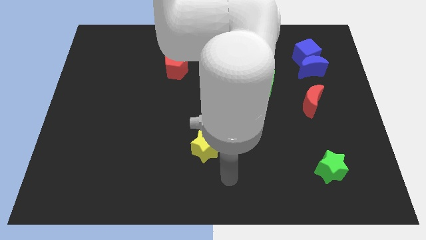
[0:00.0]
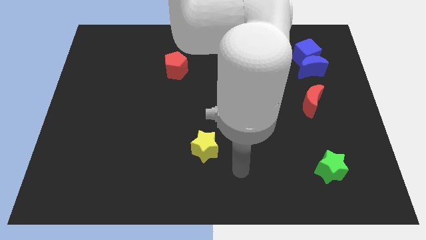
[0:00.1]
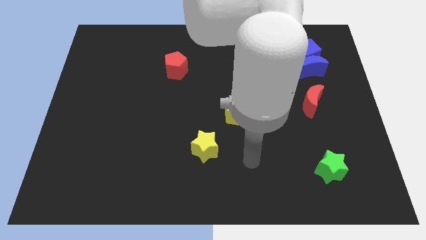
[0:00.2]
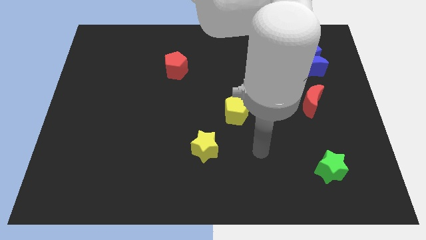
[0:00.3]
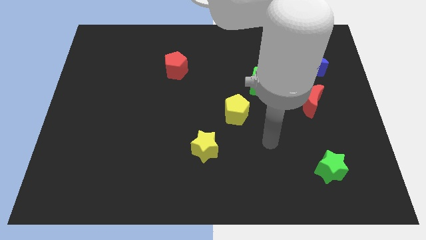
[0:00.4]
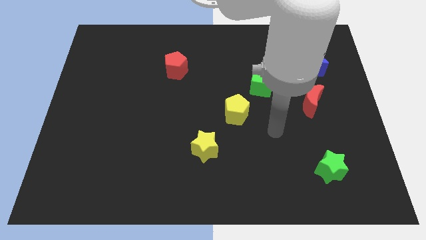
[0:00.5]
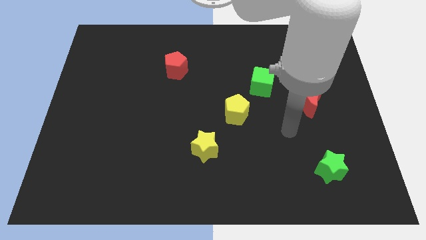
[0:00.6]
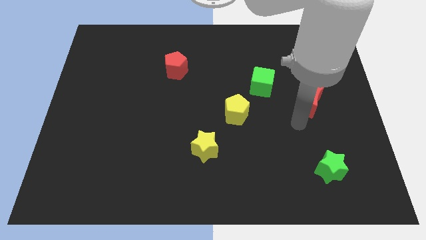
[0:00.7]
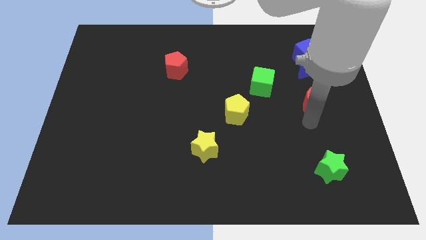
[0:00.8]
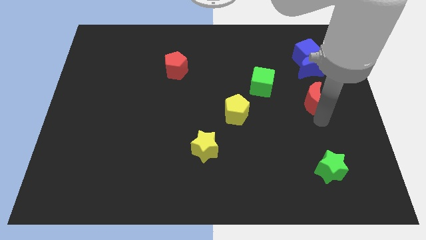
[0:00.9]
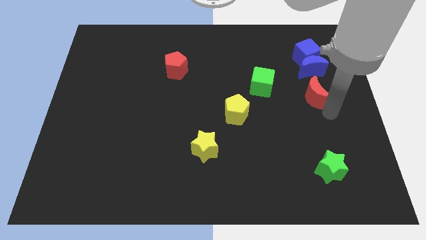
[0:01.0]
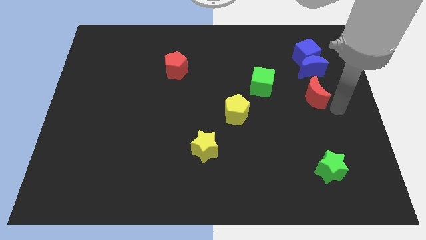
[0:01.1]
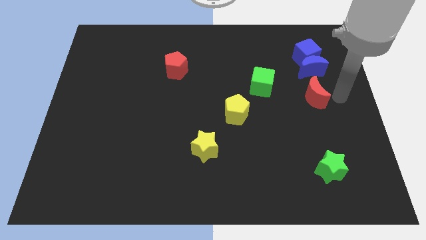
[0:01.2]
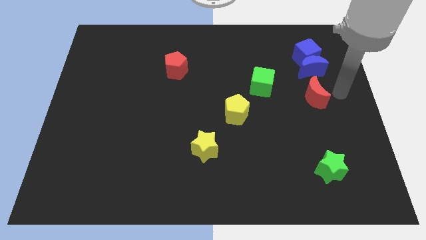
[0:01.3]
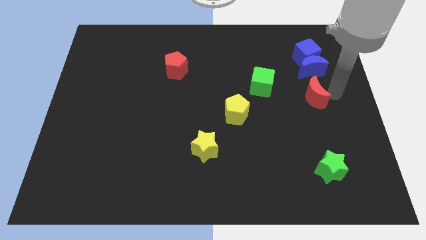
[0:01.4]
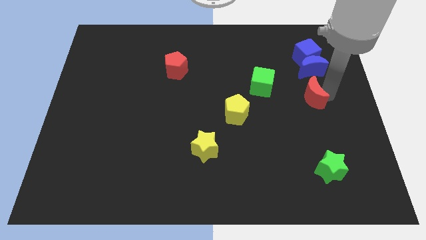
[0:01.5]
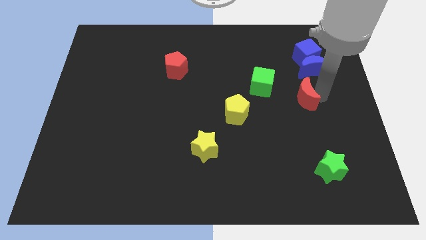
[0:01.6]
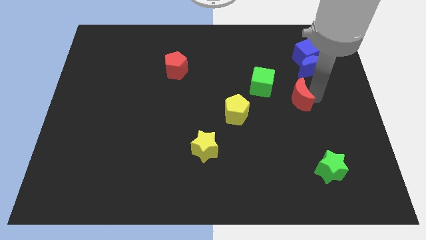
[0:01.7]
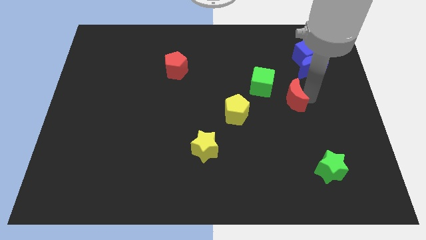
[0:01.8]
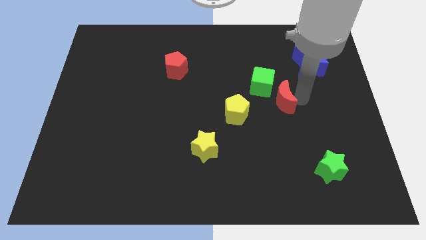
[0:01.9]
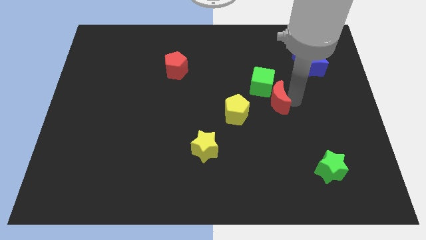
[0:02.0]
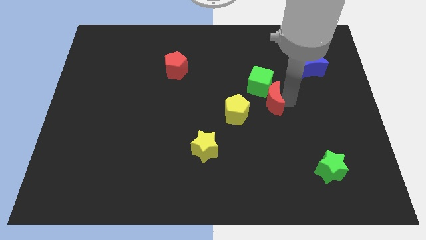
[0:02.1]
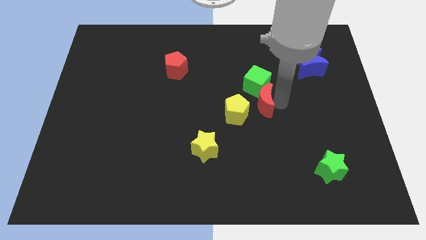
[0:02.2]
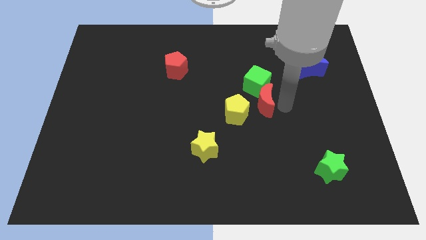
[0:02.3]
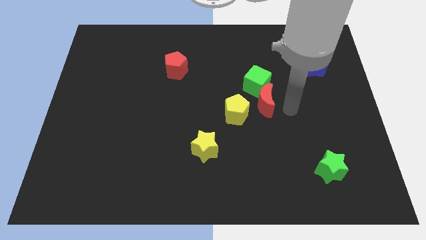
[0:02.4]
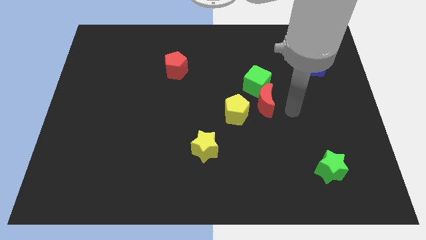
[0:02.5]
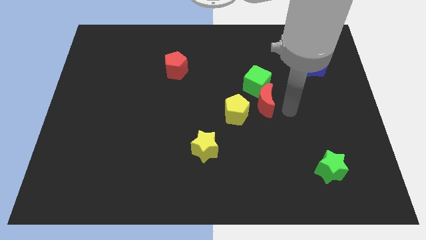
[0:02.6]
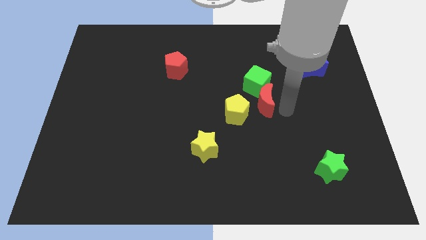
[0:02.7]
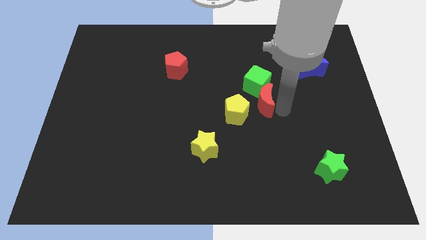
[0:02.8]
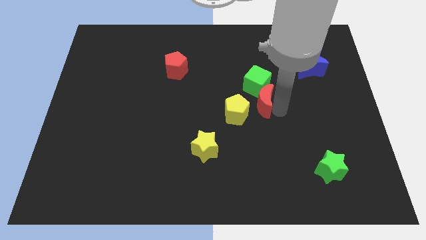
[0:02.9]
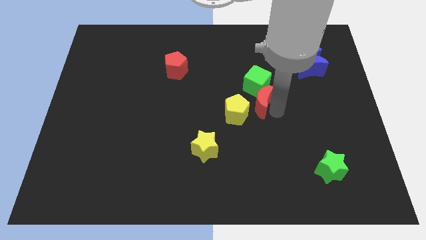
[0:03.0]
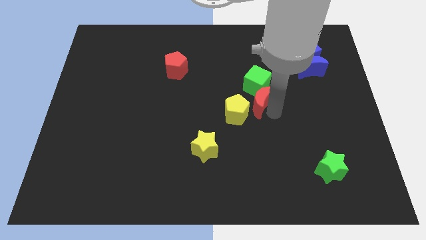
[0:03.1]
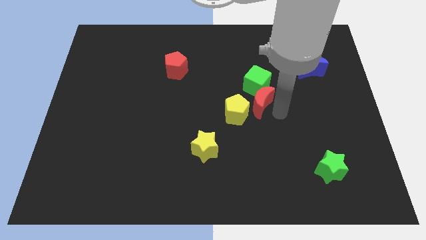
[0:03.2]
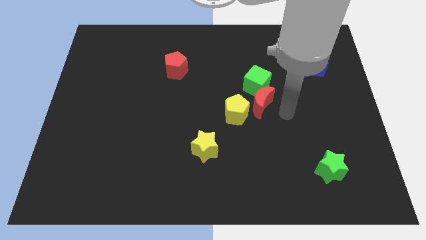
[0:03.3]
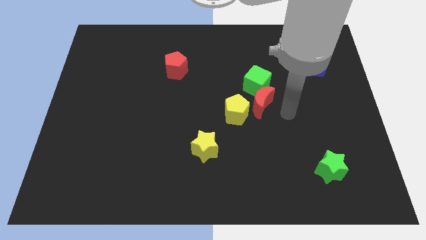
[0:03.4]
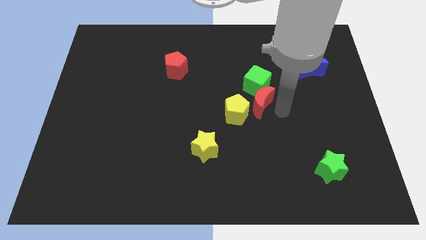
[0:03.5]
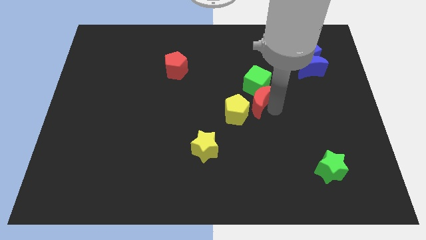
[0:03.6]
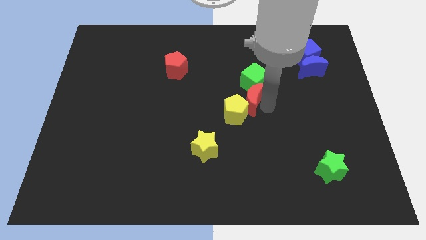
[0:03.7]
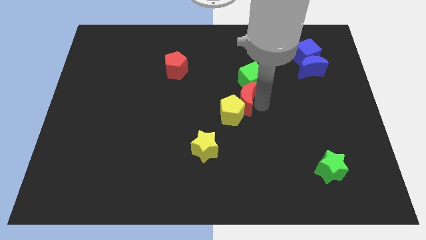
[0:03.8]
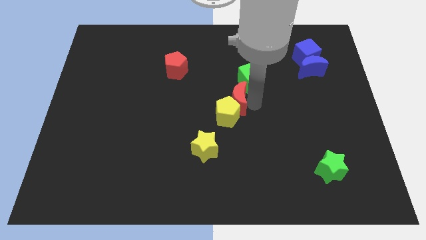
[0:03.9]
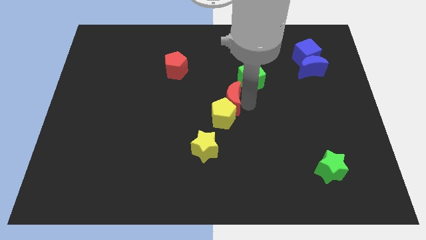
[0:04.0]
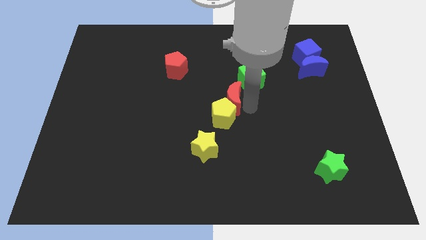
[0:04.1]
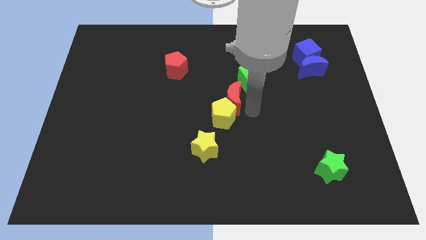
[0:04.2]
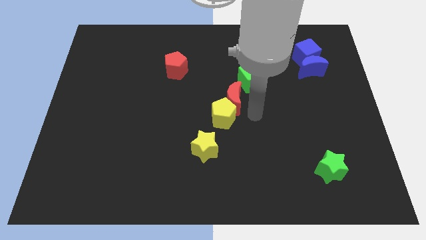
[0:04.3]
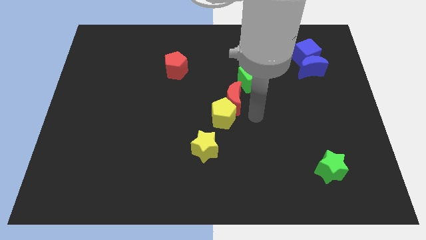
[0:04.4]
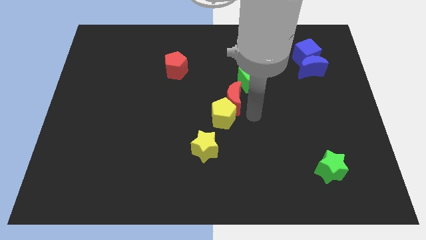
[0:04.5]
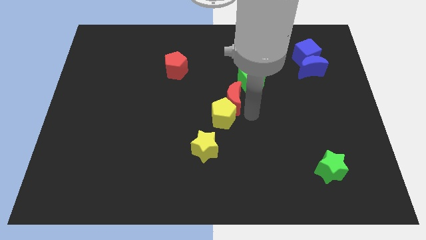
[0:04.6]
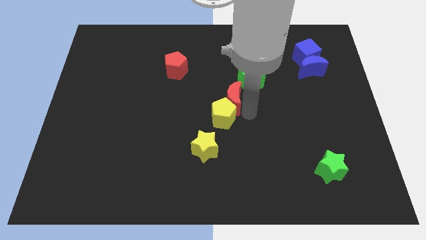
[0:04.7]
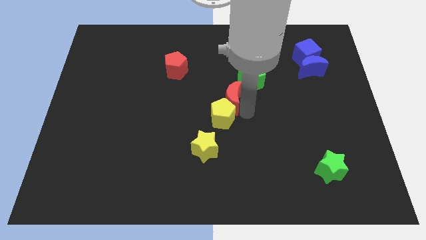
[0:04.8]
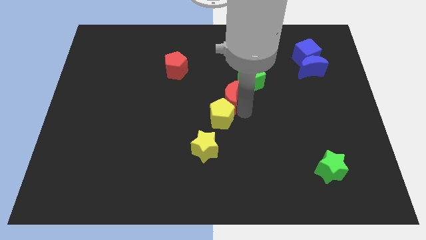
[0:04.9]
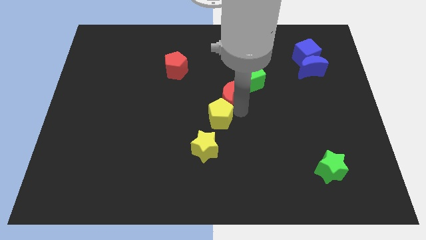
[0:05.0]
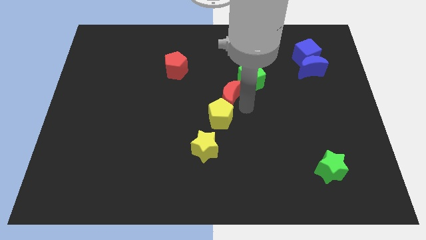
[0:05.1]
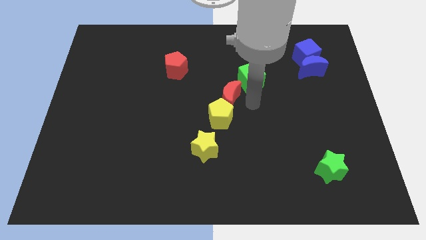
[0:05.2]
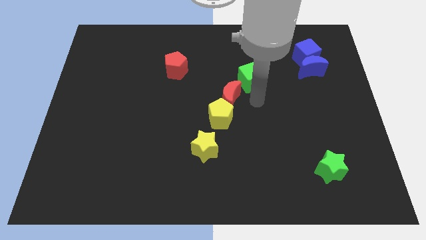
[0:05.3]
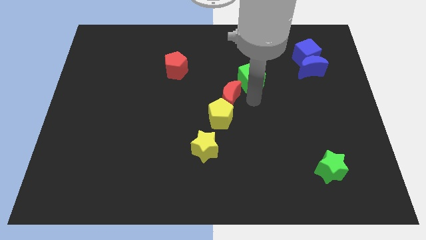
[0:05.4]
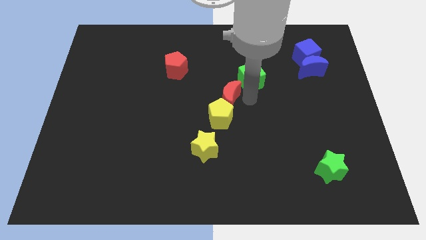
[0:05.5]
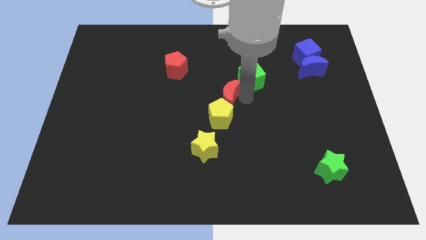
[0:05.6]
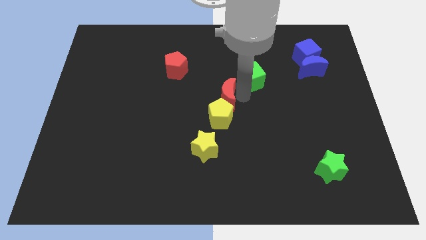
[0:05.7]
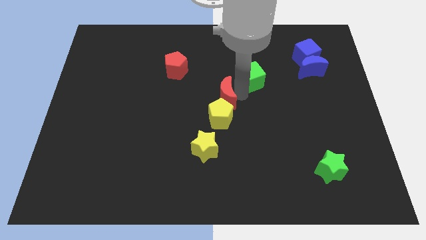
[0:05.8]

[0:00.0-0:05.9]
slide the red moon to the left

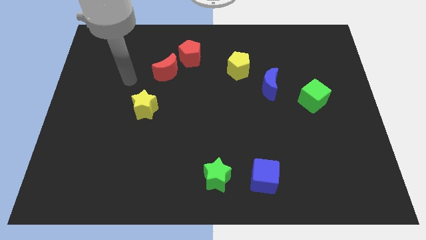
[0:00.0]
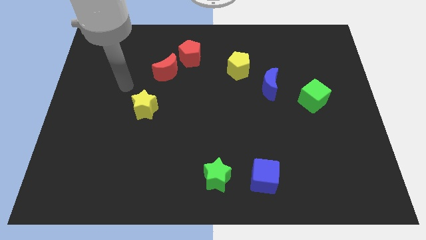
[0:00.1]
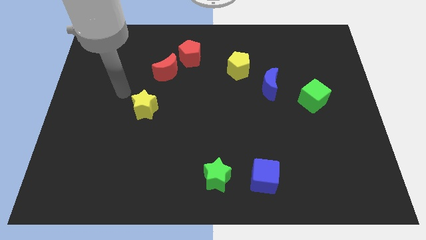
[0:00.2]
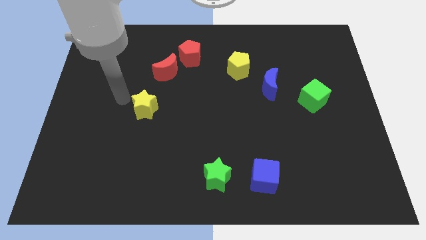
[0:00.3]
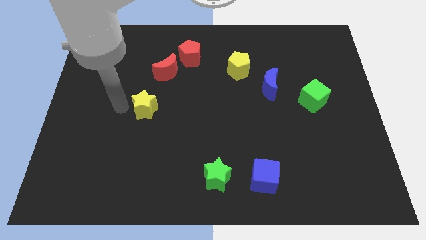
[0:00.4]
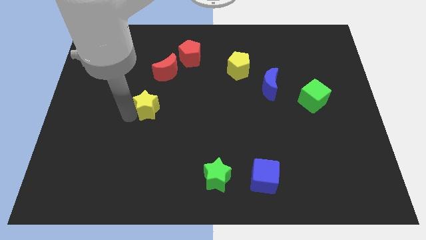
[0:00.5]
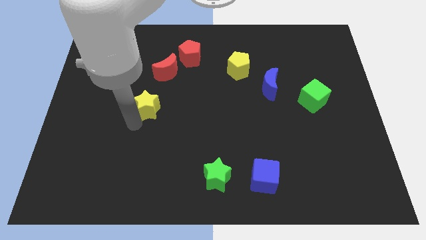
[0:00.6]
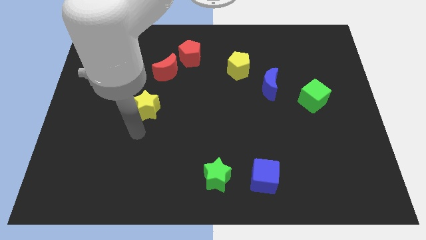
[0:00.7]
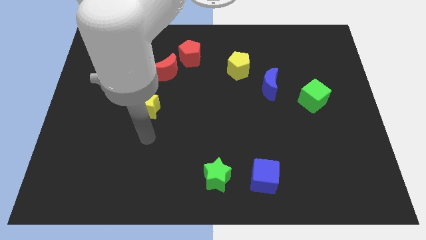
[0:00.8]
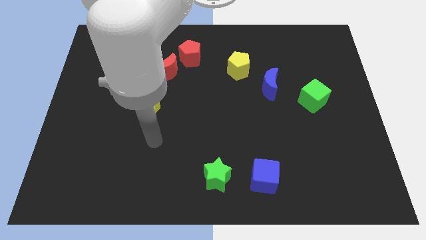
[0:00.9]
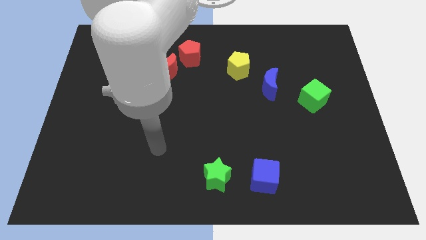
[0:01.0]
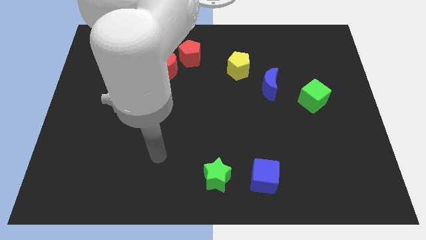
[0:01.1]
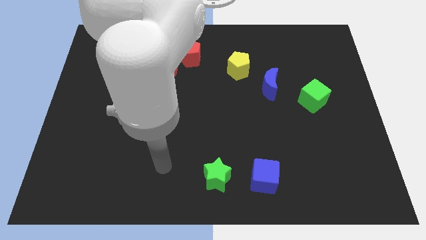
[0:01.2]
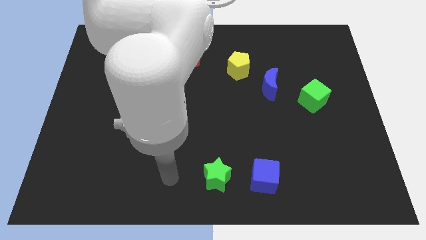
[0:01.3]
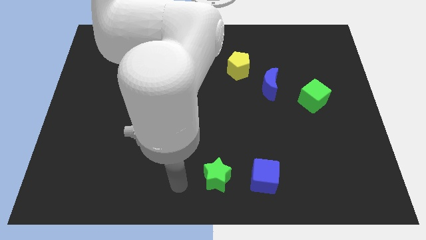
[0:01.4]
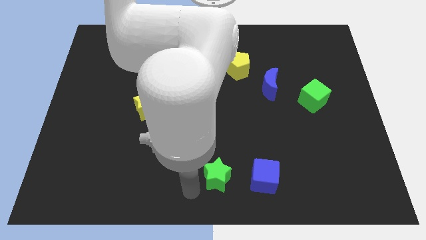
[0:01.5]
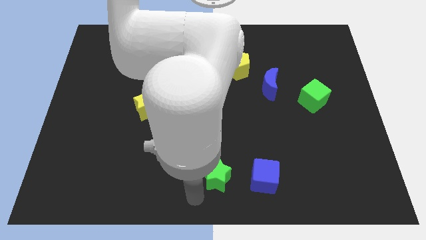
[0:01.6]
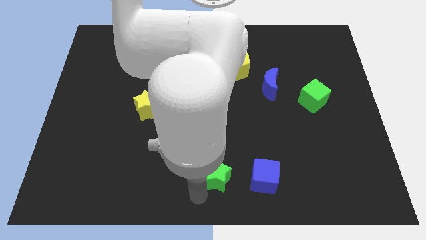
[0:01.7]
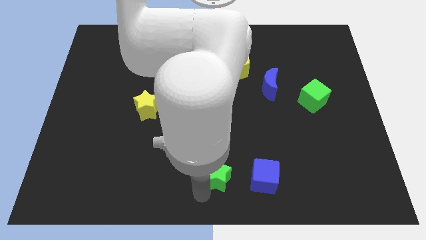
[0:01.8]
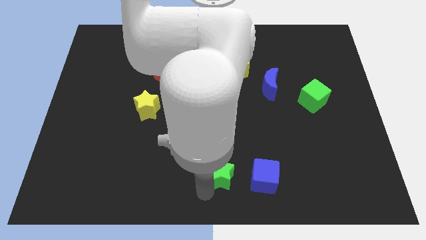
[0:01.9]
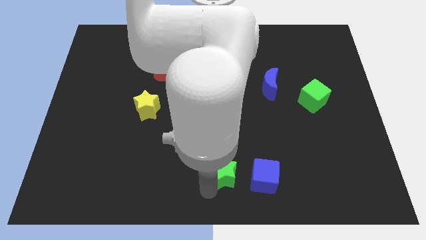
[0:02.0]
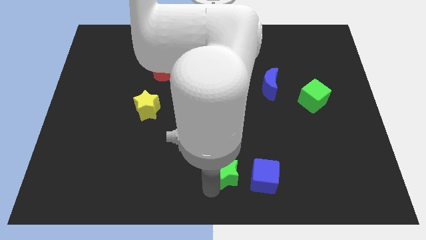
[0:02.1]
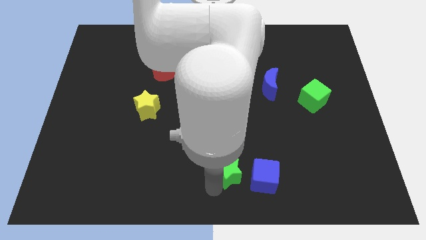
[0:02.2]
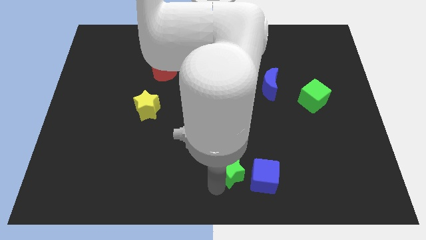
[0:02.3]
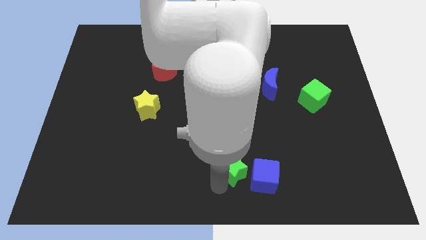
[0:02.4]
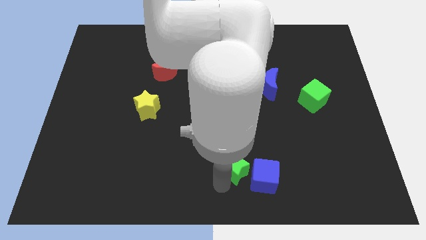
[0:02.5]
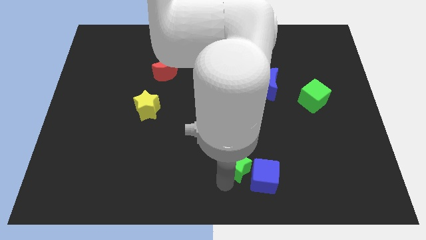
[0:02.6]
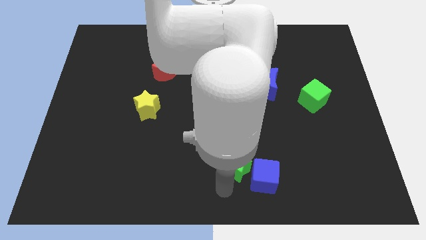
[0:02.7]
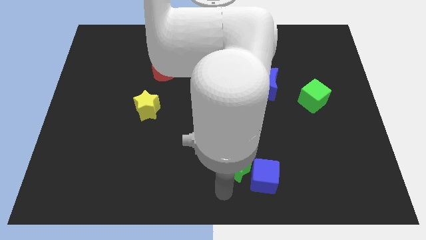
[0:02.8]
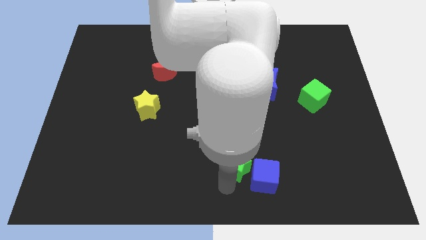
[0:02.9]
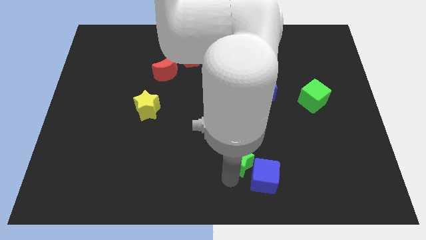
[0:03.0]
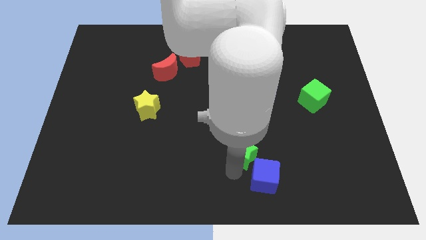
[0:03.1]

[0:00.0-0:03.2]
move the green star upwards and then right slightly
